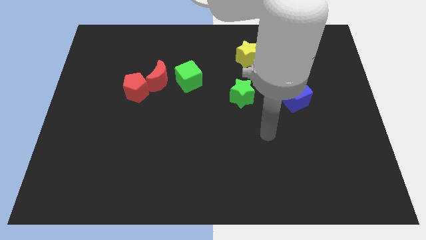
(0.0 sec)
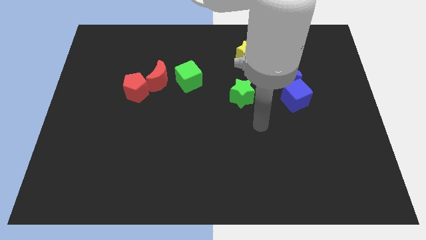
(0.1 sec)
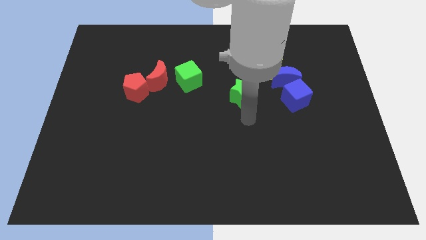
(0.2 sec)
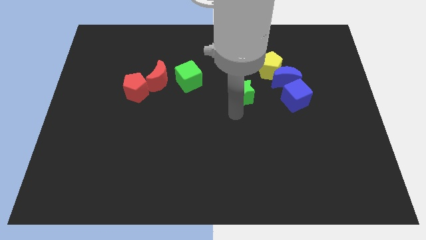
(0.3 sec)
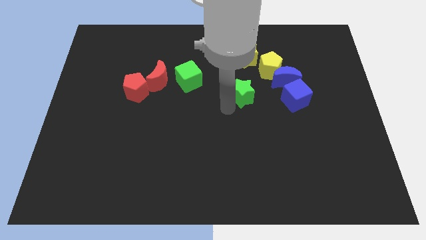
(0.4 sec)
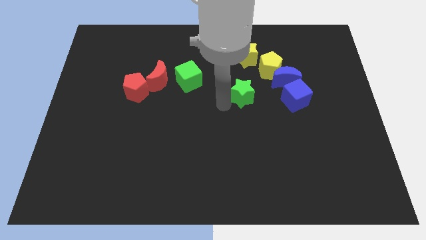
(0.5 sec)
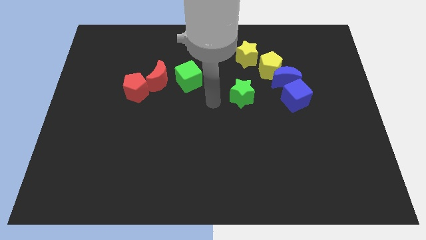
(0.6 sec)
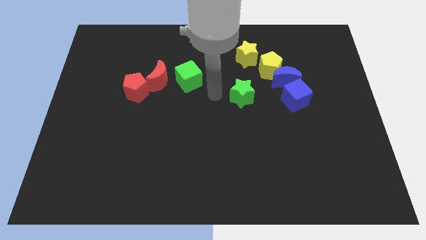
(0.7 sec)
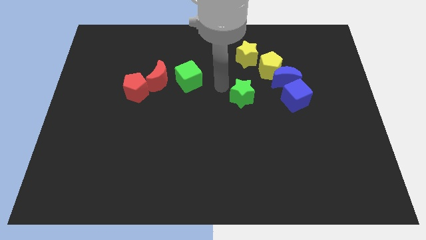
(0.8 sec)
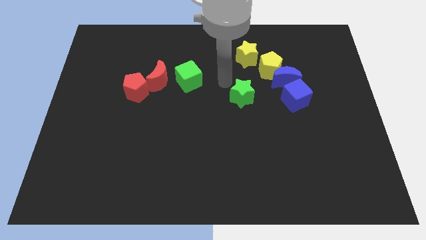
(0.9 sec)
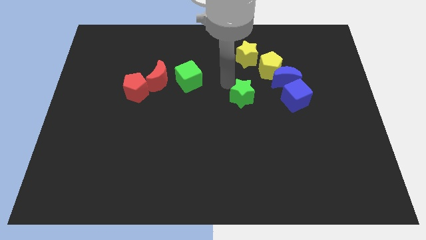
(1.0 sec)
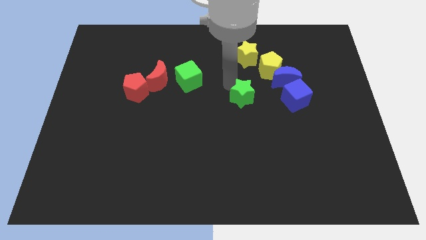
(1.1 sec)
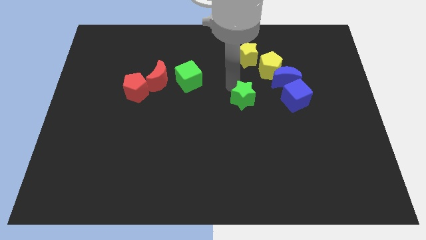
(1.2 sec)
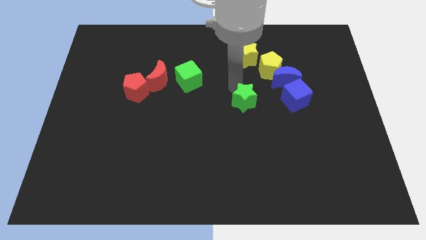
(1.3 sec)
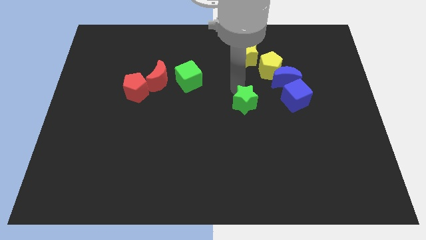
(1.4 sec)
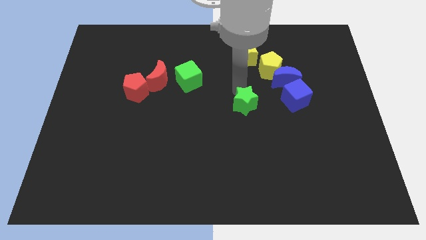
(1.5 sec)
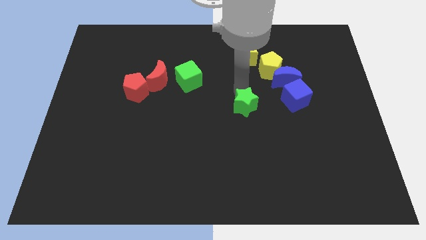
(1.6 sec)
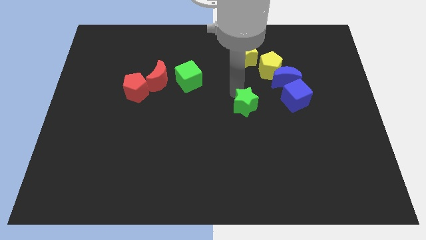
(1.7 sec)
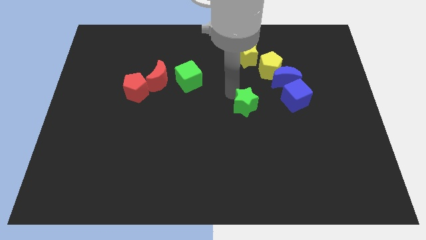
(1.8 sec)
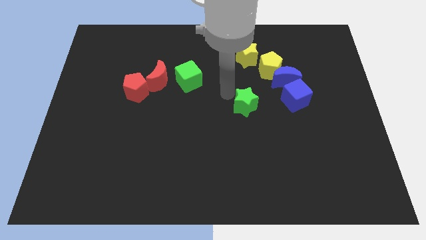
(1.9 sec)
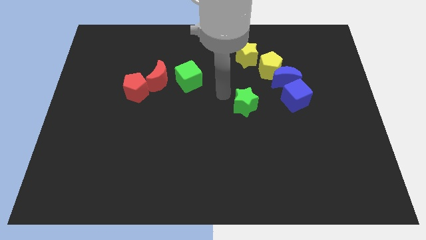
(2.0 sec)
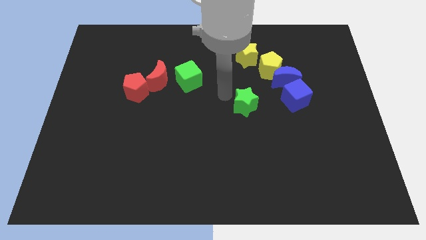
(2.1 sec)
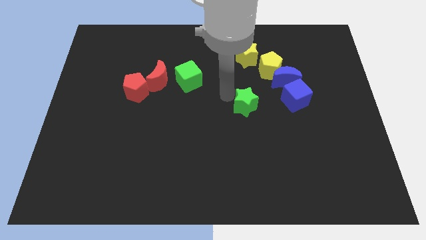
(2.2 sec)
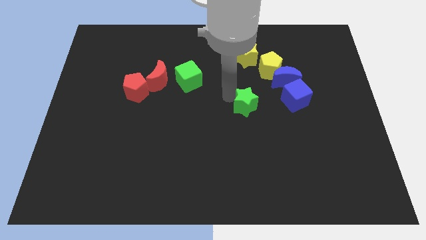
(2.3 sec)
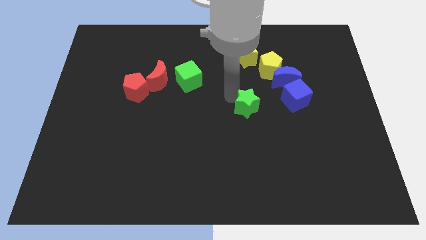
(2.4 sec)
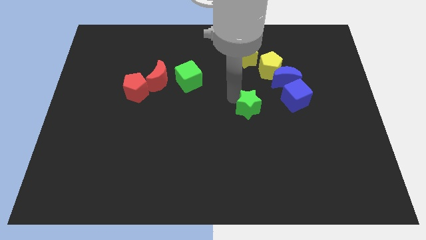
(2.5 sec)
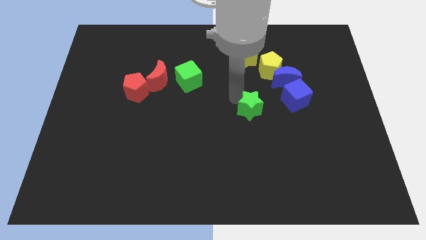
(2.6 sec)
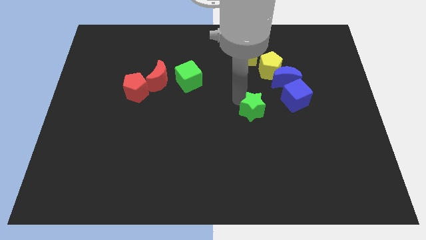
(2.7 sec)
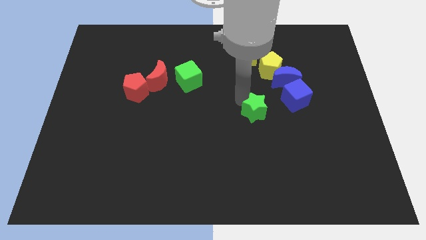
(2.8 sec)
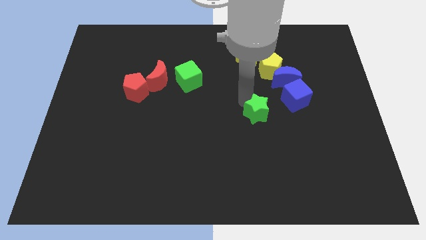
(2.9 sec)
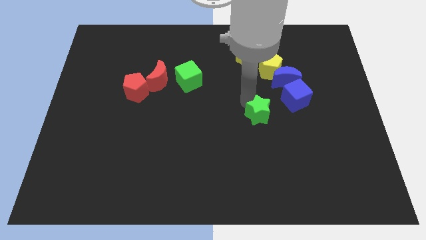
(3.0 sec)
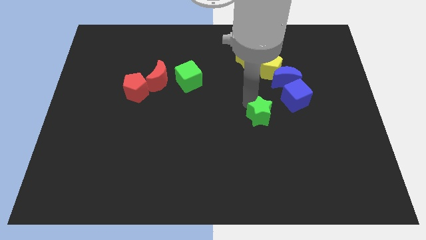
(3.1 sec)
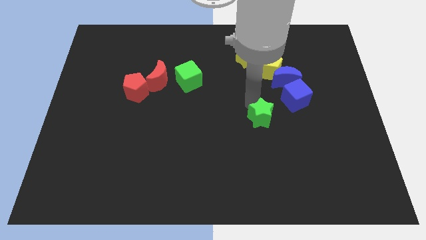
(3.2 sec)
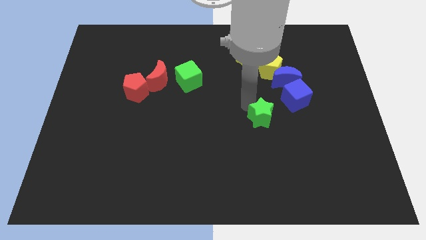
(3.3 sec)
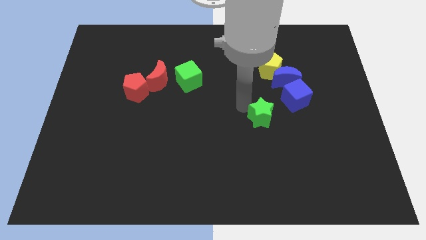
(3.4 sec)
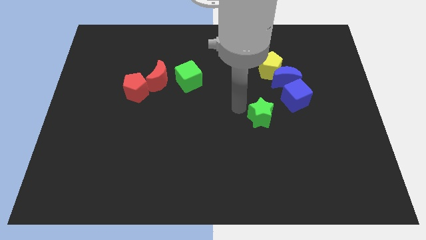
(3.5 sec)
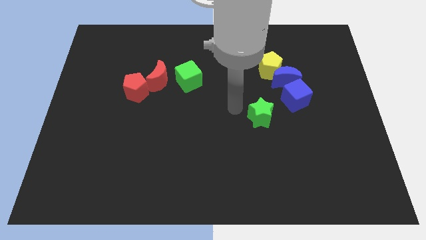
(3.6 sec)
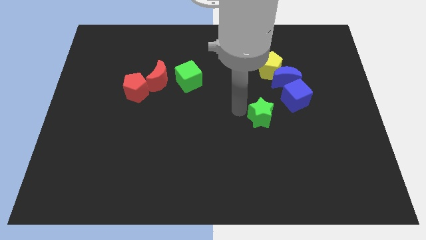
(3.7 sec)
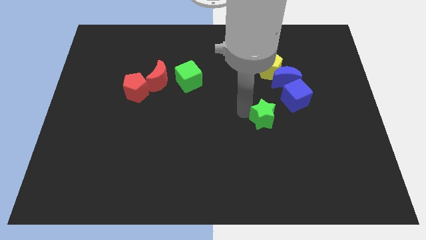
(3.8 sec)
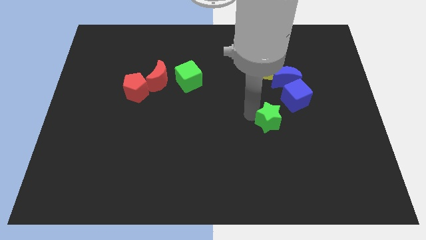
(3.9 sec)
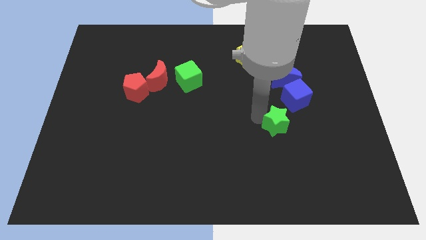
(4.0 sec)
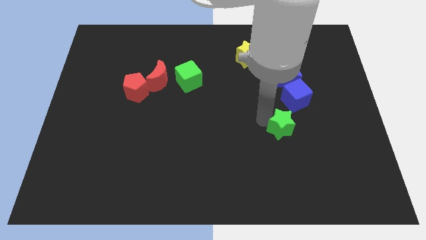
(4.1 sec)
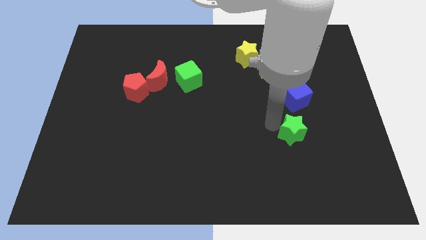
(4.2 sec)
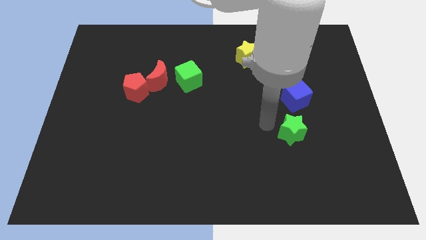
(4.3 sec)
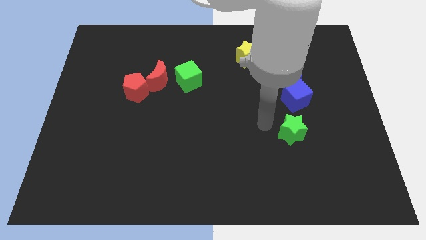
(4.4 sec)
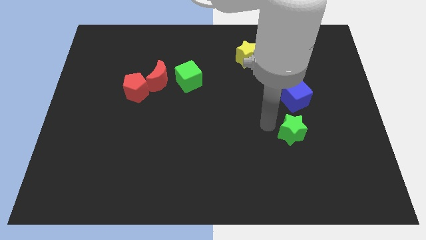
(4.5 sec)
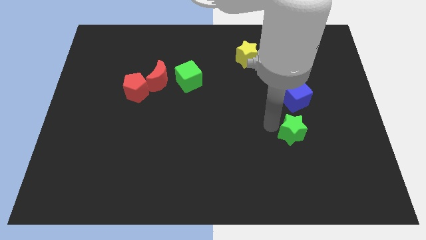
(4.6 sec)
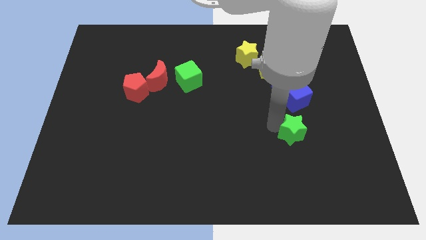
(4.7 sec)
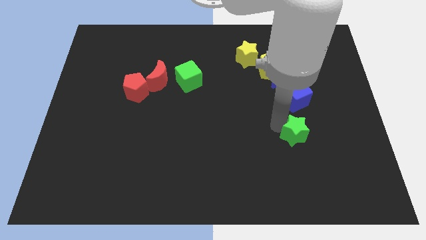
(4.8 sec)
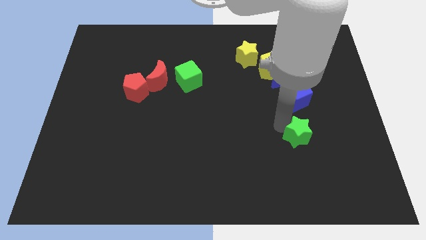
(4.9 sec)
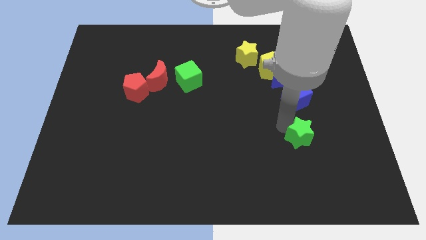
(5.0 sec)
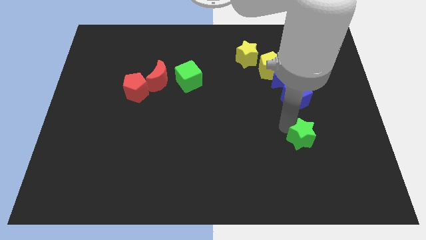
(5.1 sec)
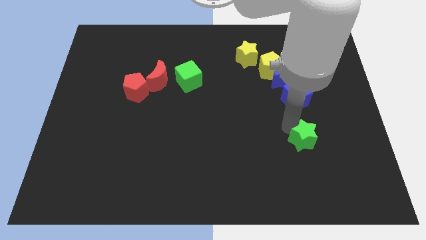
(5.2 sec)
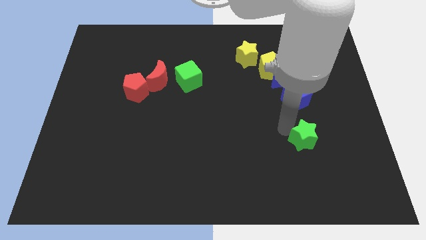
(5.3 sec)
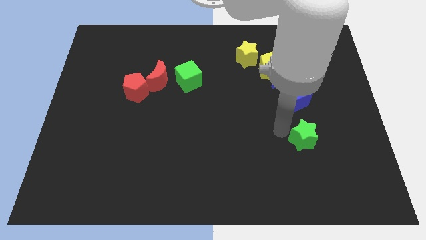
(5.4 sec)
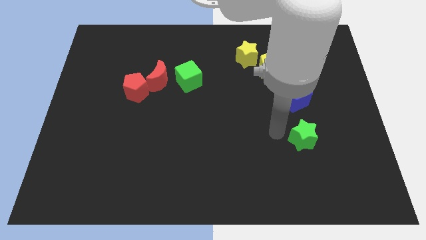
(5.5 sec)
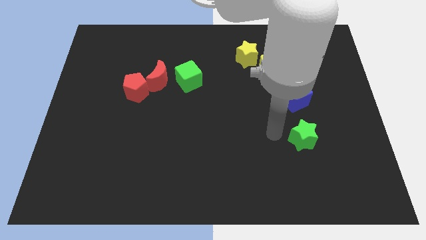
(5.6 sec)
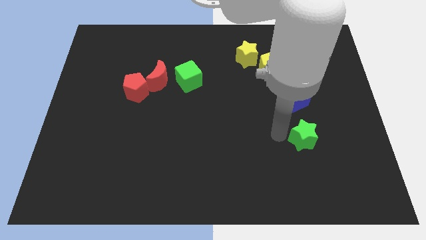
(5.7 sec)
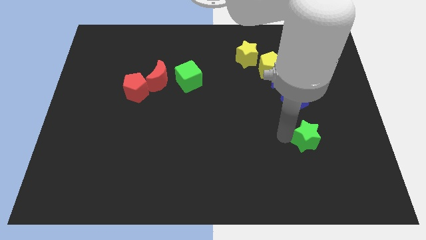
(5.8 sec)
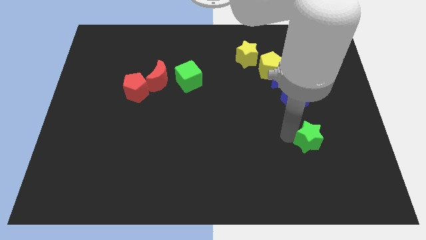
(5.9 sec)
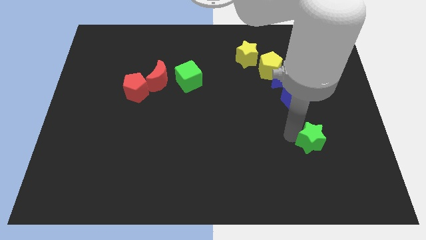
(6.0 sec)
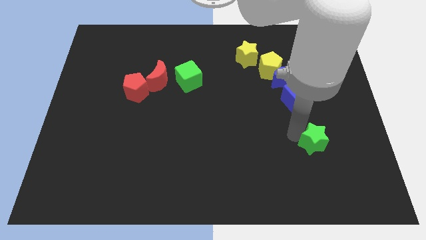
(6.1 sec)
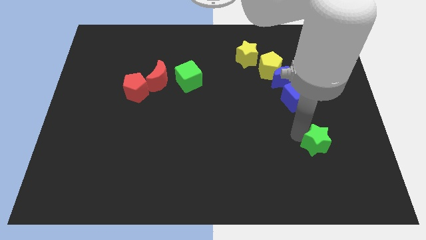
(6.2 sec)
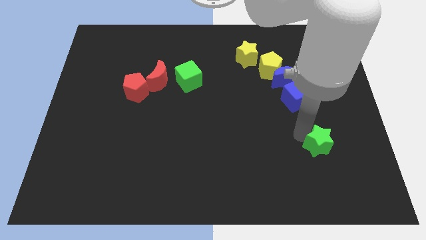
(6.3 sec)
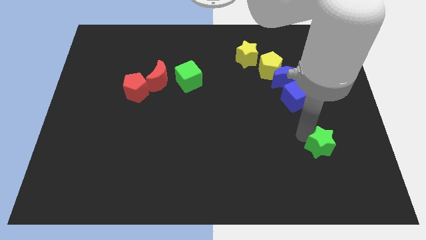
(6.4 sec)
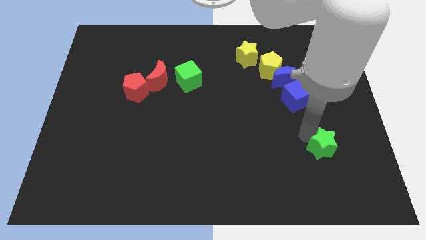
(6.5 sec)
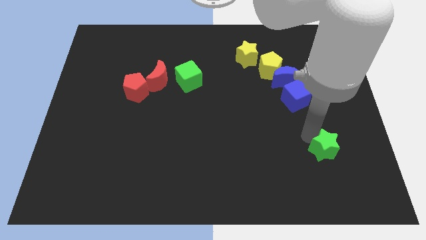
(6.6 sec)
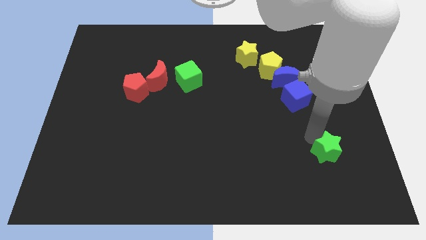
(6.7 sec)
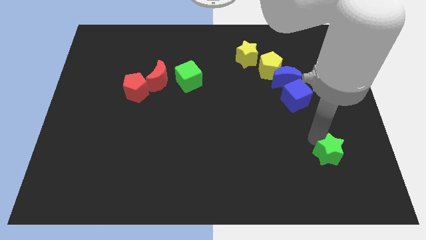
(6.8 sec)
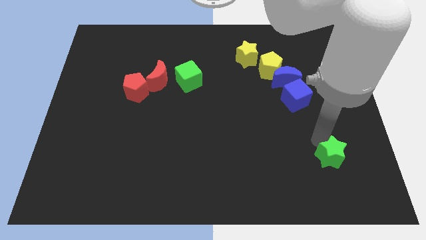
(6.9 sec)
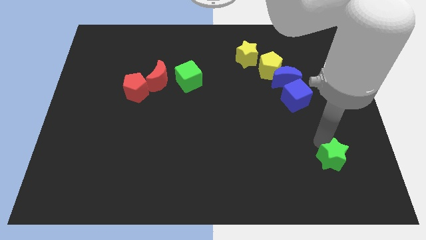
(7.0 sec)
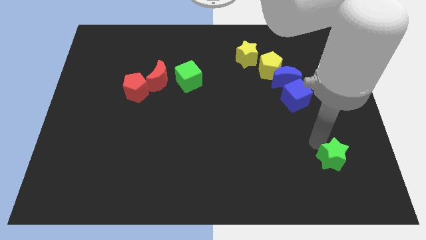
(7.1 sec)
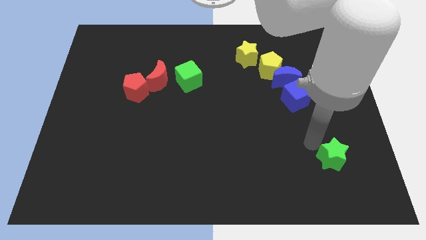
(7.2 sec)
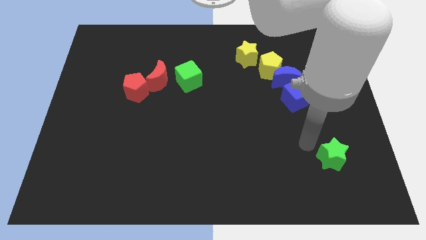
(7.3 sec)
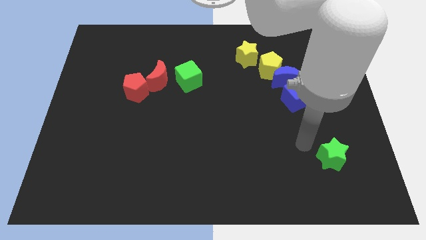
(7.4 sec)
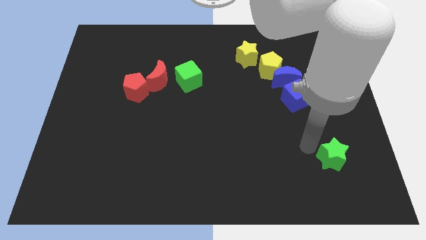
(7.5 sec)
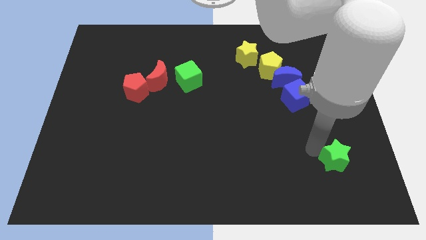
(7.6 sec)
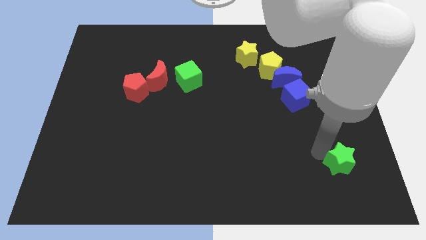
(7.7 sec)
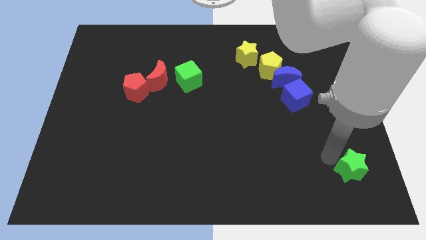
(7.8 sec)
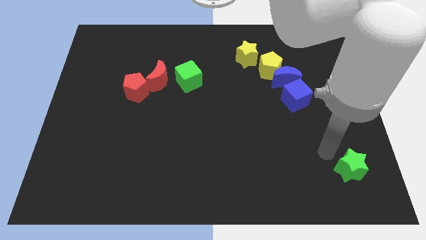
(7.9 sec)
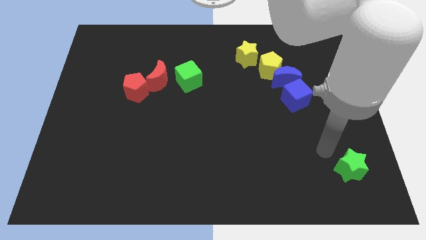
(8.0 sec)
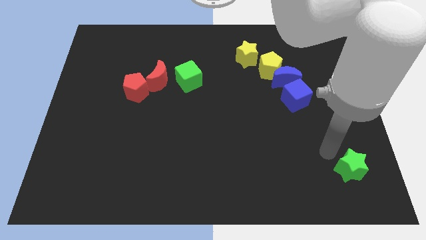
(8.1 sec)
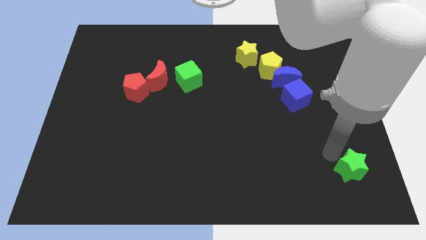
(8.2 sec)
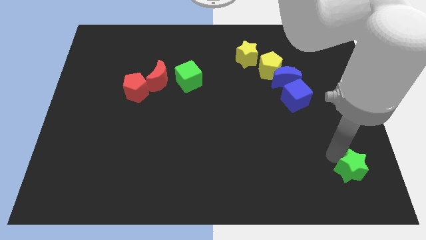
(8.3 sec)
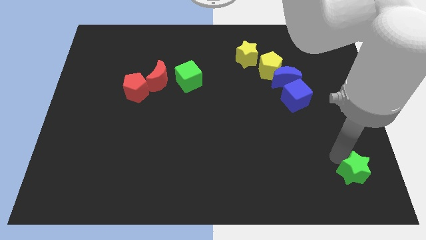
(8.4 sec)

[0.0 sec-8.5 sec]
push the green star to the bottom right
